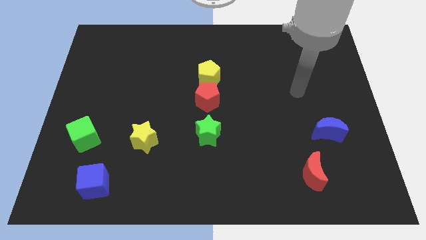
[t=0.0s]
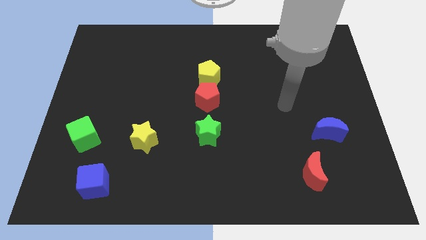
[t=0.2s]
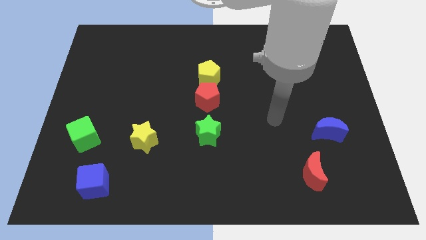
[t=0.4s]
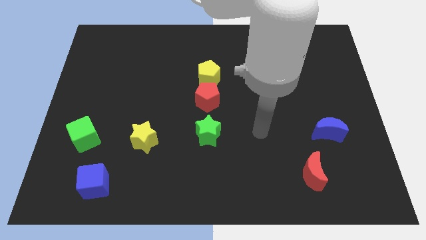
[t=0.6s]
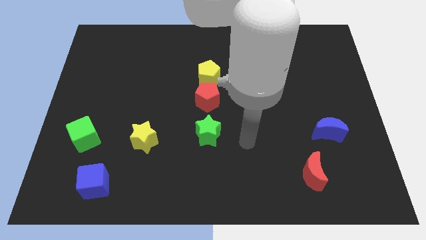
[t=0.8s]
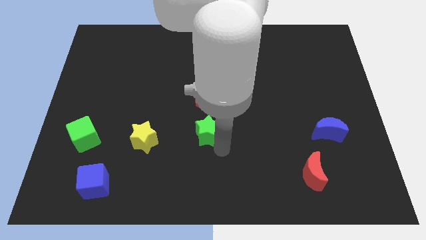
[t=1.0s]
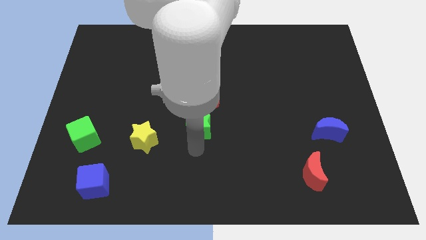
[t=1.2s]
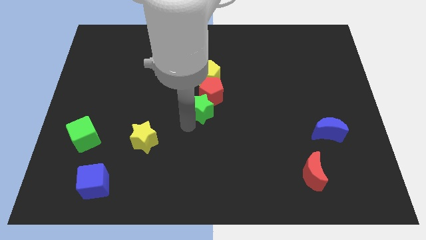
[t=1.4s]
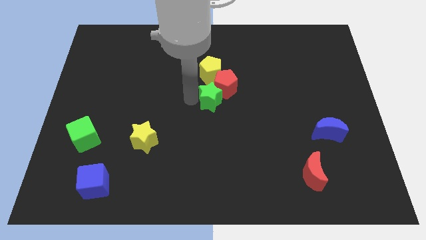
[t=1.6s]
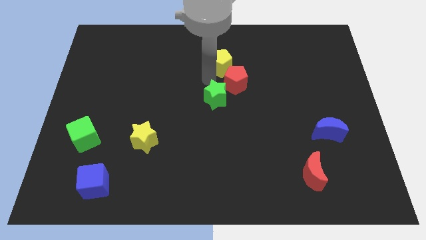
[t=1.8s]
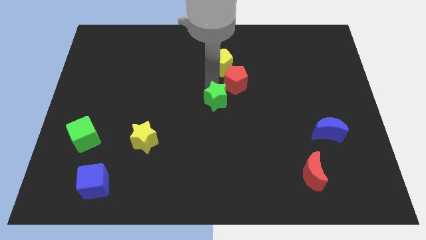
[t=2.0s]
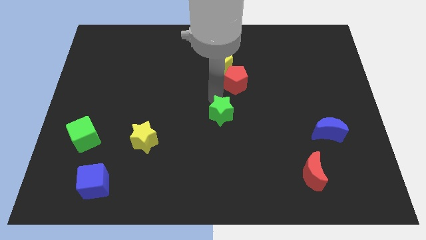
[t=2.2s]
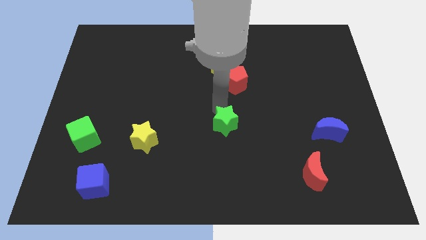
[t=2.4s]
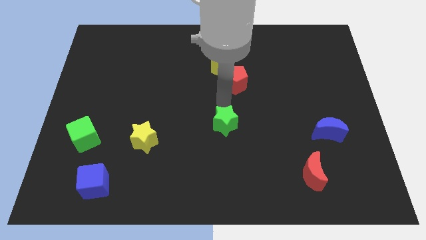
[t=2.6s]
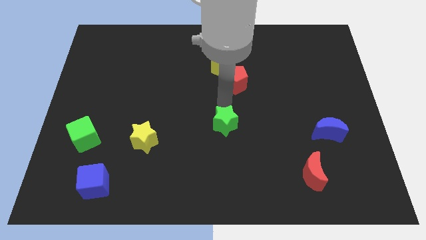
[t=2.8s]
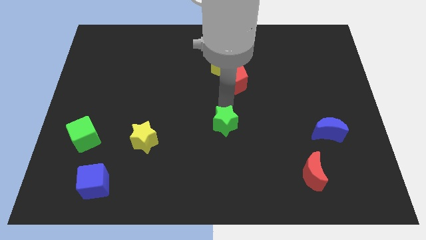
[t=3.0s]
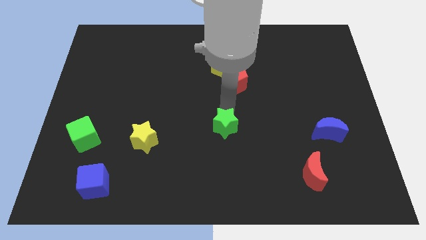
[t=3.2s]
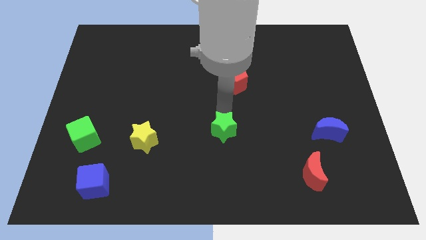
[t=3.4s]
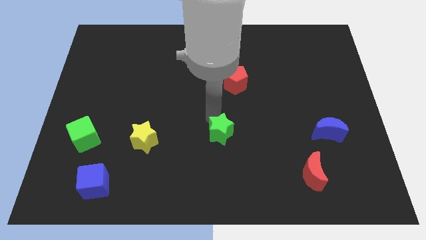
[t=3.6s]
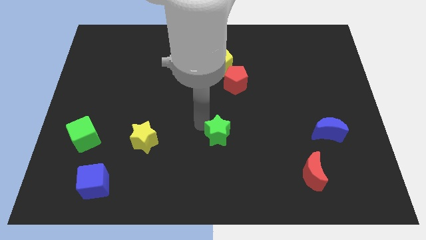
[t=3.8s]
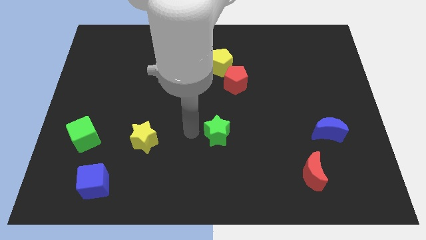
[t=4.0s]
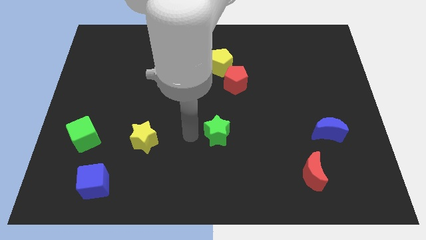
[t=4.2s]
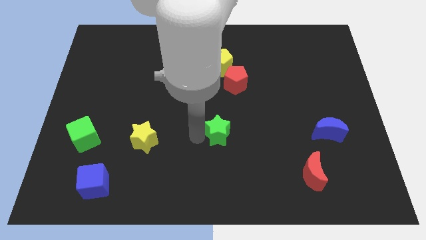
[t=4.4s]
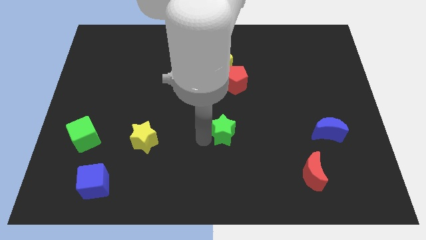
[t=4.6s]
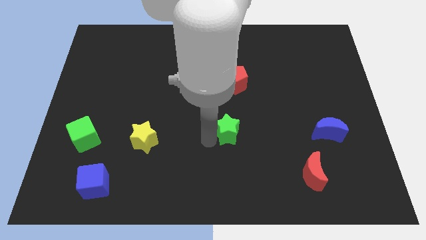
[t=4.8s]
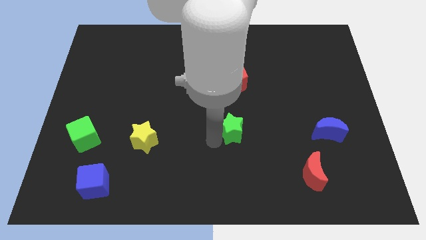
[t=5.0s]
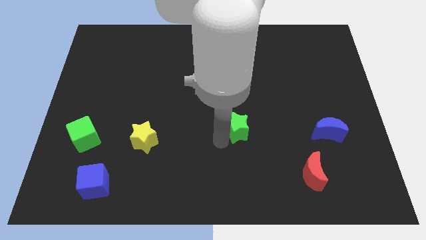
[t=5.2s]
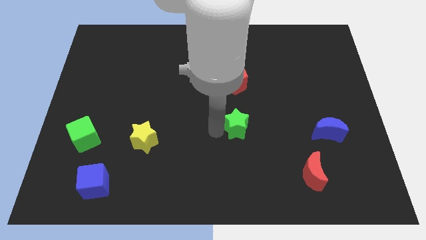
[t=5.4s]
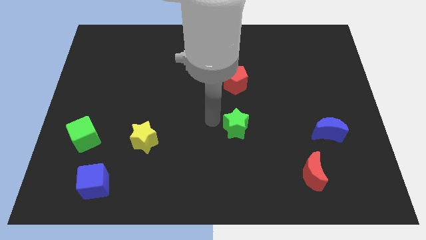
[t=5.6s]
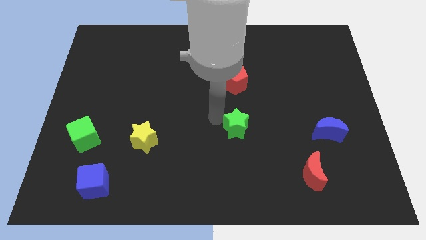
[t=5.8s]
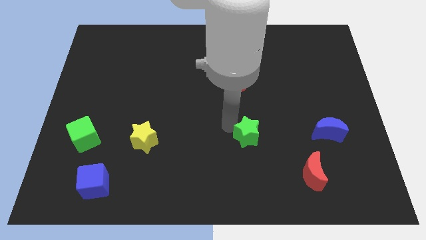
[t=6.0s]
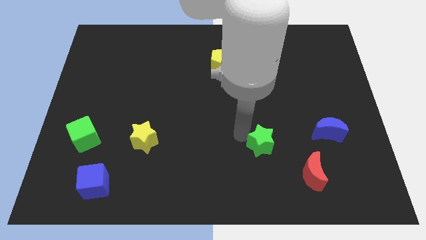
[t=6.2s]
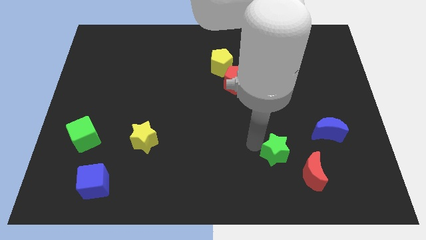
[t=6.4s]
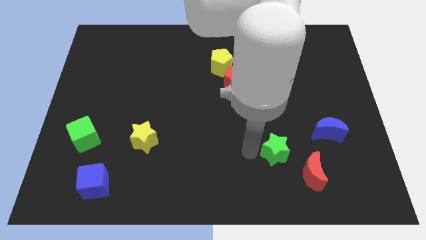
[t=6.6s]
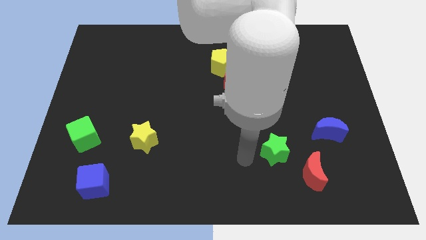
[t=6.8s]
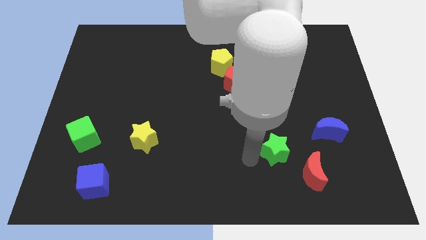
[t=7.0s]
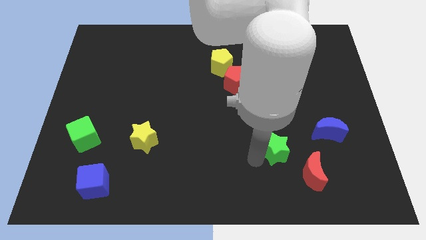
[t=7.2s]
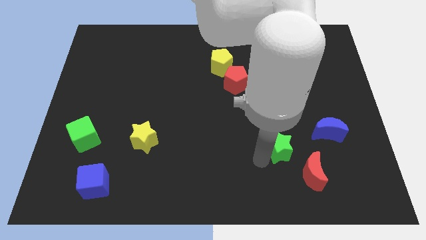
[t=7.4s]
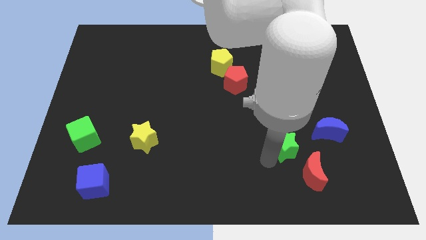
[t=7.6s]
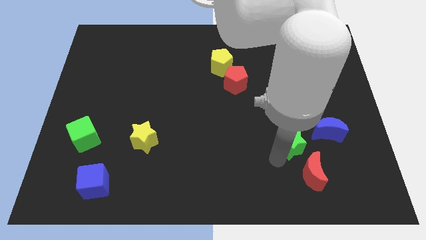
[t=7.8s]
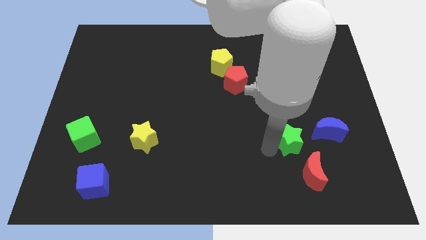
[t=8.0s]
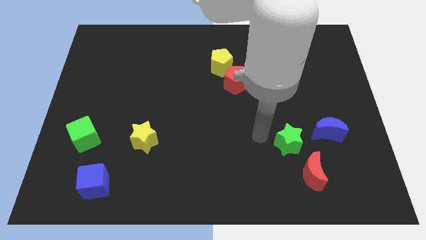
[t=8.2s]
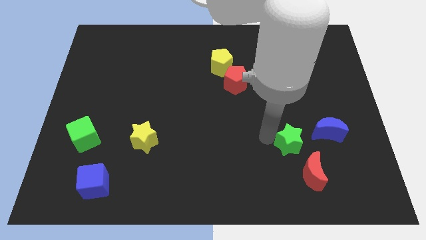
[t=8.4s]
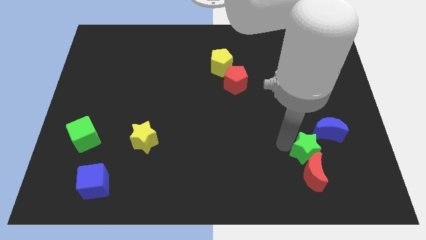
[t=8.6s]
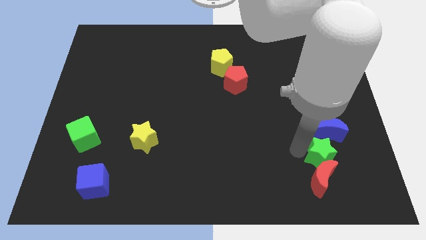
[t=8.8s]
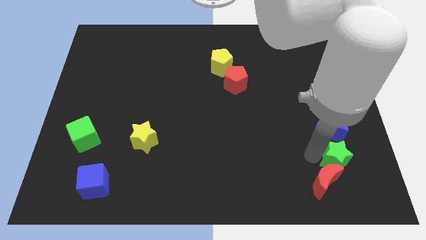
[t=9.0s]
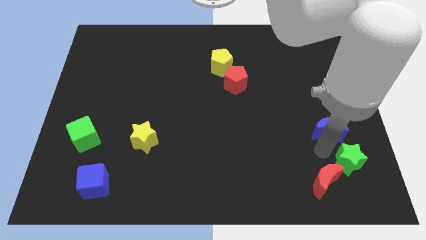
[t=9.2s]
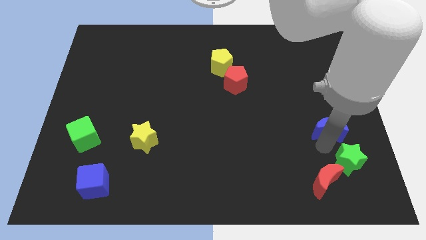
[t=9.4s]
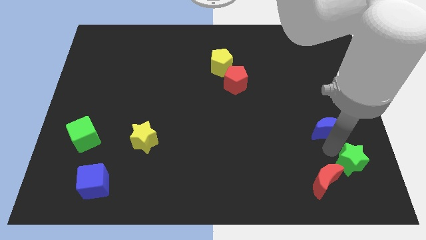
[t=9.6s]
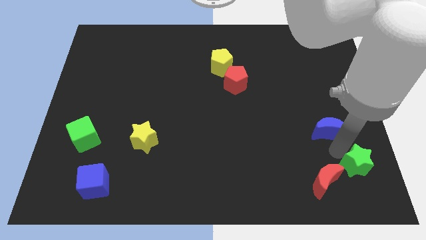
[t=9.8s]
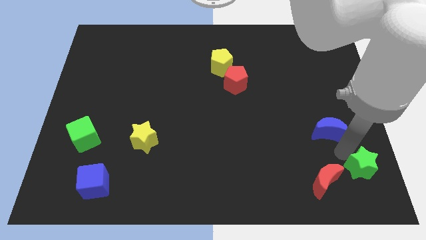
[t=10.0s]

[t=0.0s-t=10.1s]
slide the green star to the lower right corner

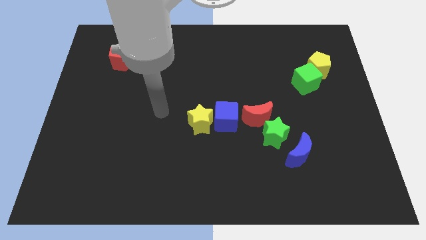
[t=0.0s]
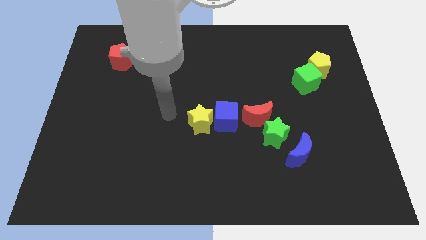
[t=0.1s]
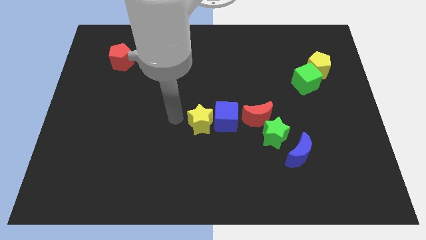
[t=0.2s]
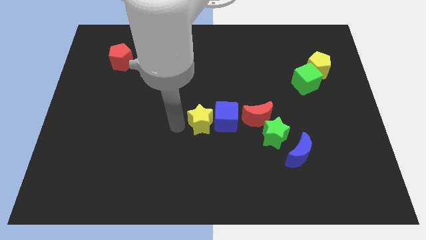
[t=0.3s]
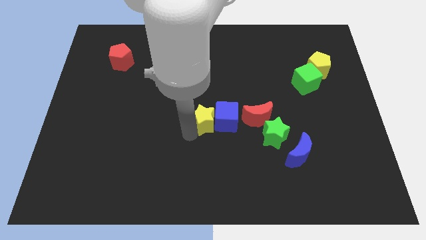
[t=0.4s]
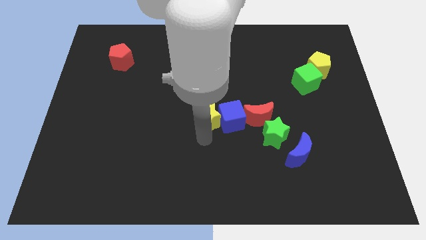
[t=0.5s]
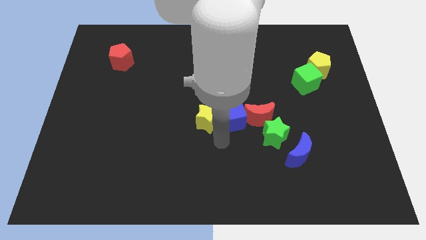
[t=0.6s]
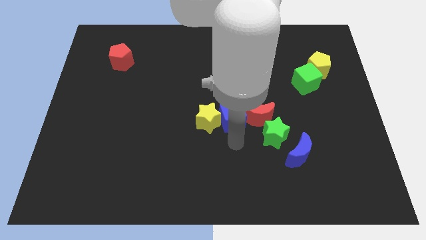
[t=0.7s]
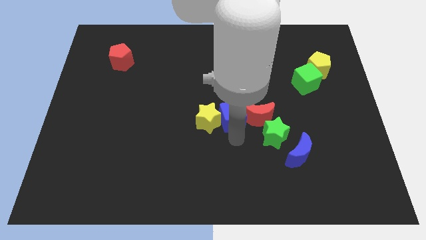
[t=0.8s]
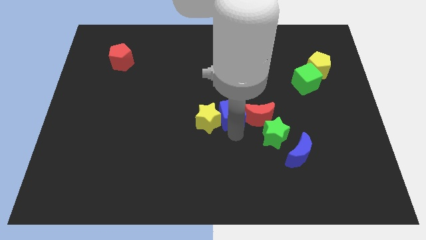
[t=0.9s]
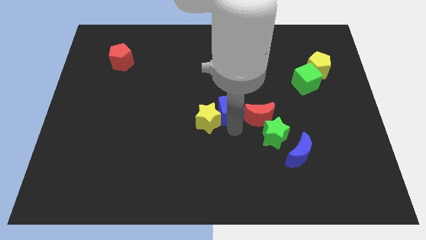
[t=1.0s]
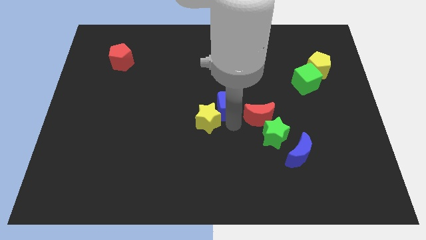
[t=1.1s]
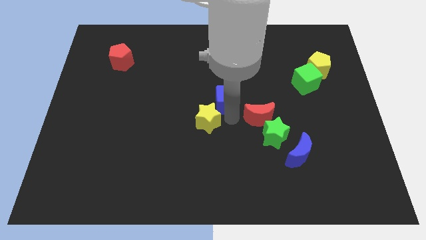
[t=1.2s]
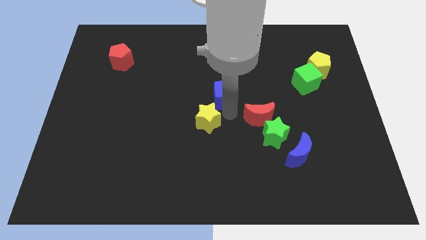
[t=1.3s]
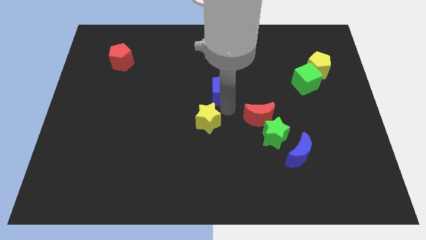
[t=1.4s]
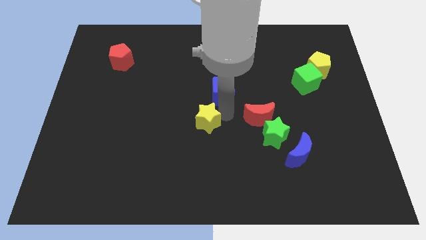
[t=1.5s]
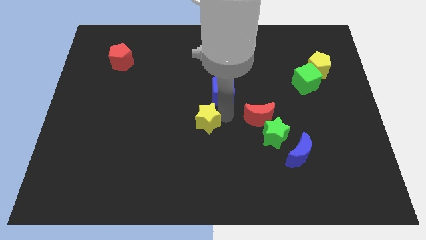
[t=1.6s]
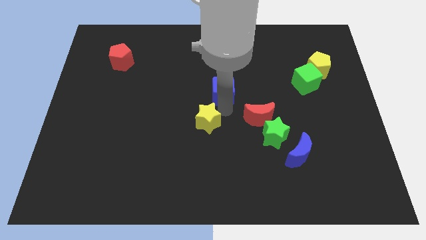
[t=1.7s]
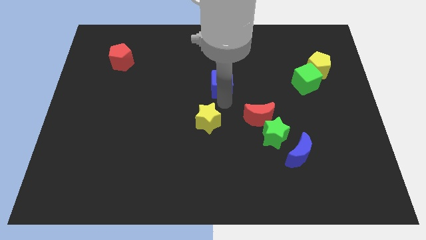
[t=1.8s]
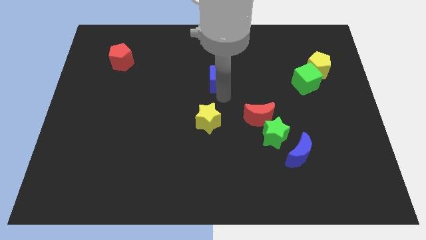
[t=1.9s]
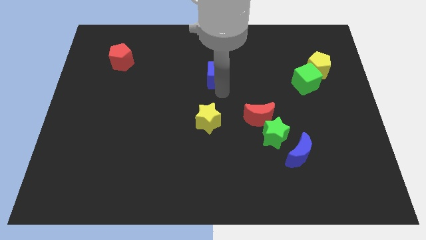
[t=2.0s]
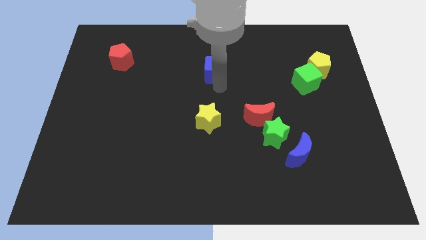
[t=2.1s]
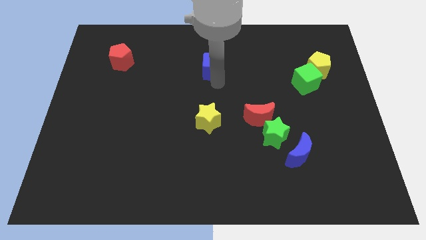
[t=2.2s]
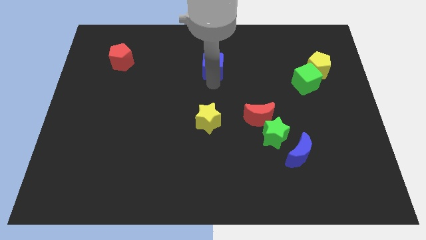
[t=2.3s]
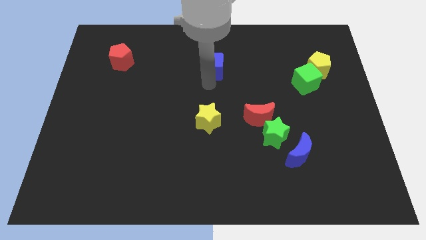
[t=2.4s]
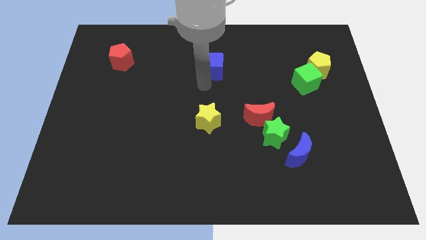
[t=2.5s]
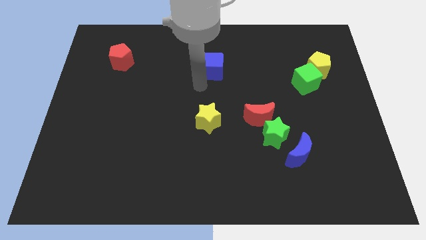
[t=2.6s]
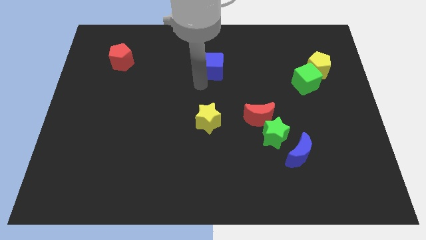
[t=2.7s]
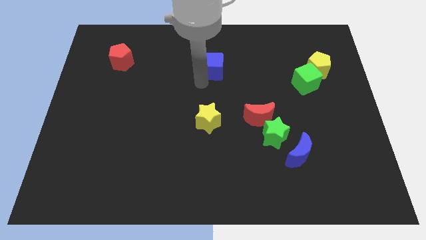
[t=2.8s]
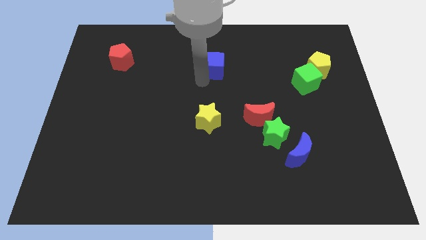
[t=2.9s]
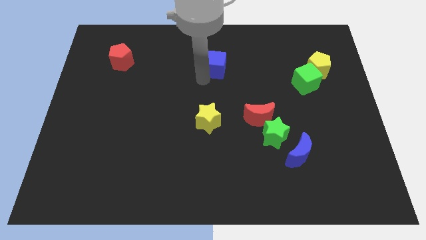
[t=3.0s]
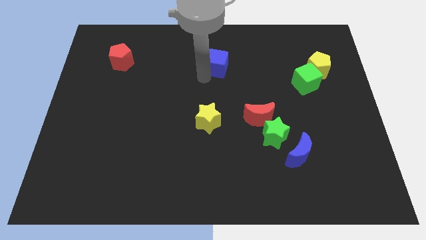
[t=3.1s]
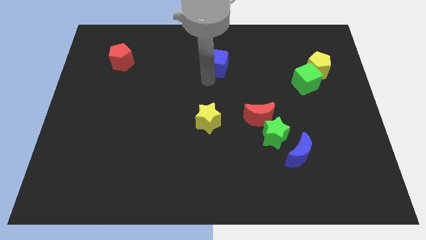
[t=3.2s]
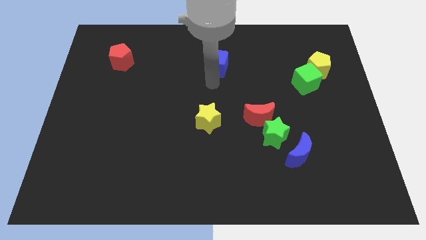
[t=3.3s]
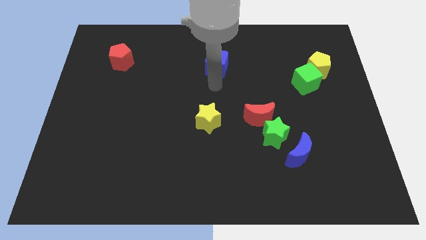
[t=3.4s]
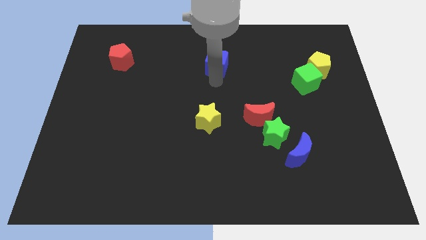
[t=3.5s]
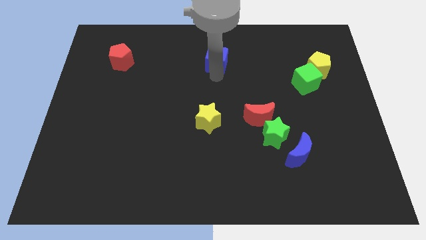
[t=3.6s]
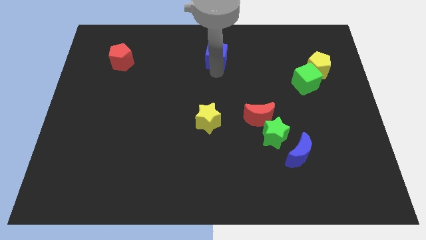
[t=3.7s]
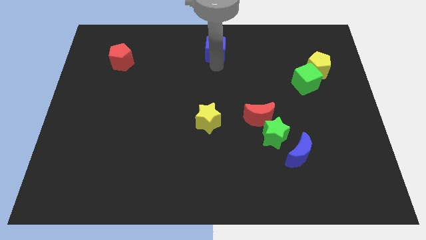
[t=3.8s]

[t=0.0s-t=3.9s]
move the blue cube to the towards your base
